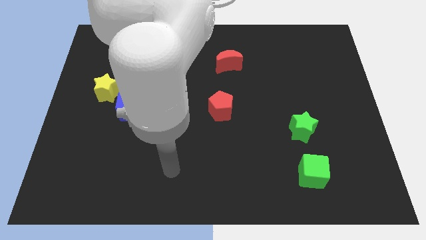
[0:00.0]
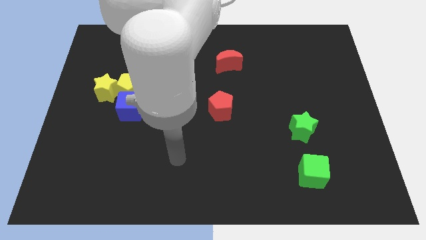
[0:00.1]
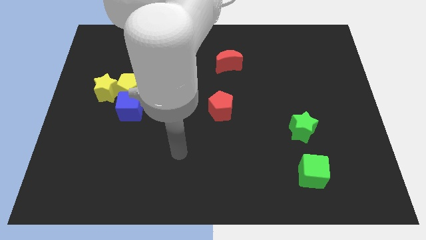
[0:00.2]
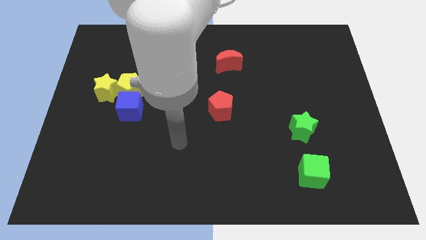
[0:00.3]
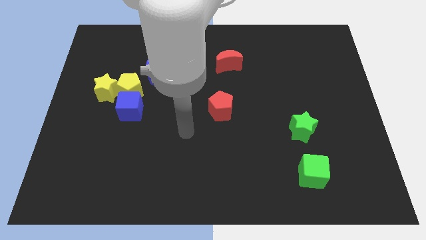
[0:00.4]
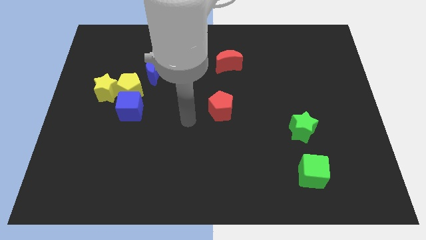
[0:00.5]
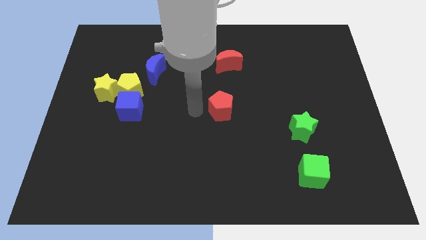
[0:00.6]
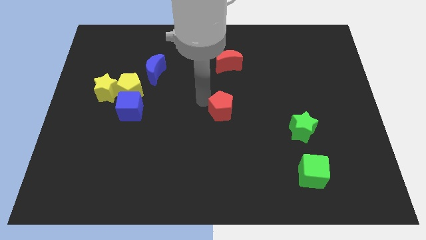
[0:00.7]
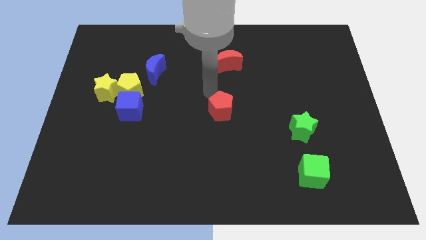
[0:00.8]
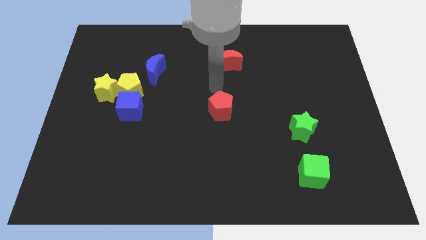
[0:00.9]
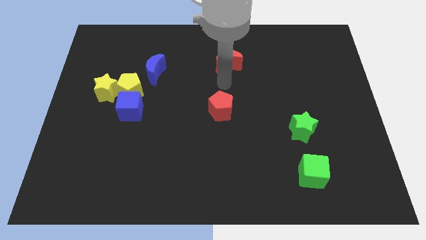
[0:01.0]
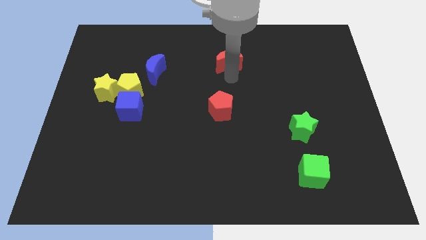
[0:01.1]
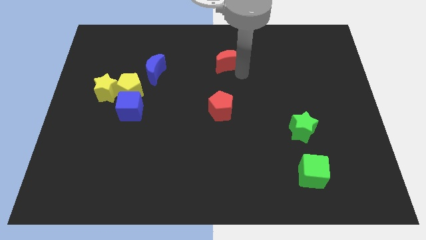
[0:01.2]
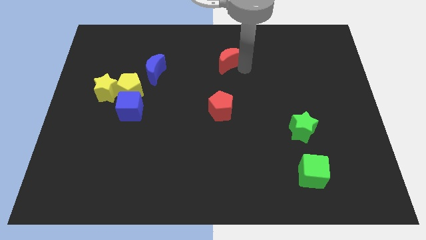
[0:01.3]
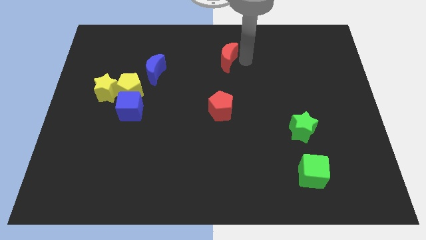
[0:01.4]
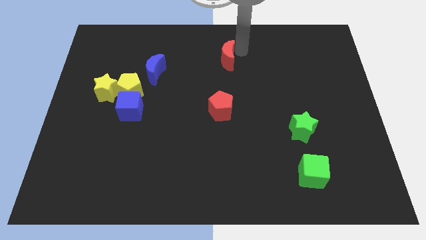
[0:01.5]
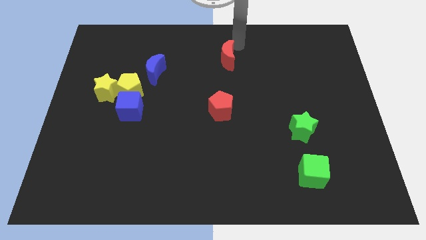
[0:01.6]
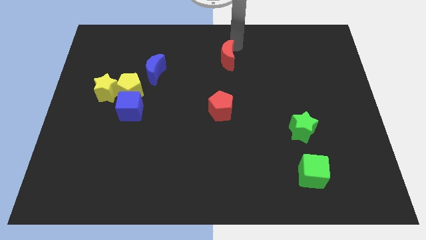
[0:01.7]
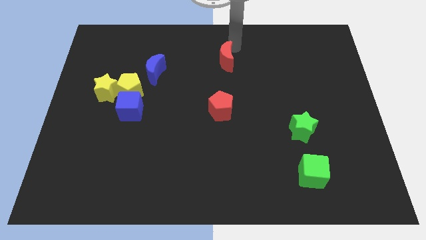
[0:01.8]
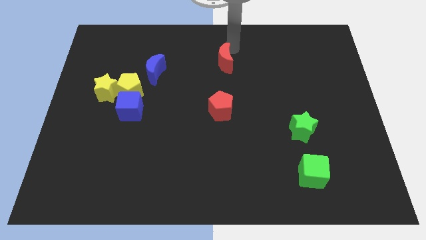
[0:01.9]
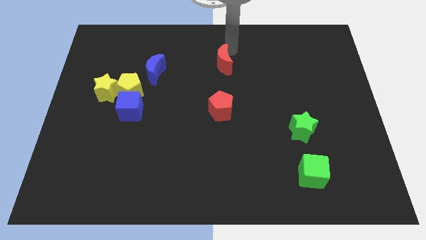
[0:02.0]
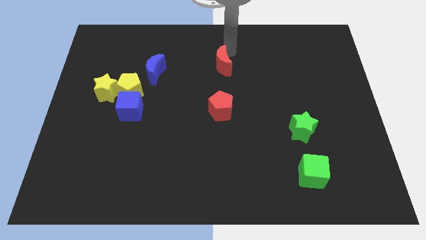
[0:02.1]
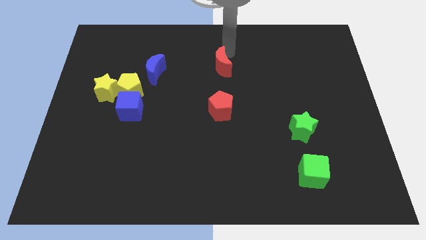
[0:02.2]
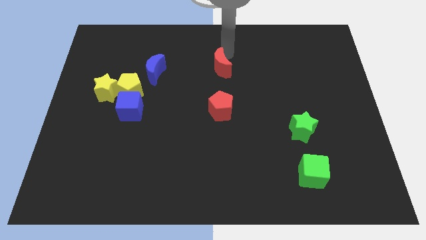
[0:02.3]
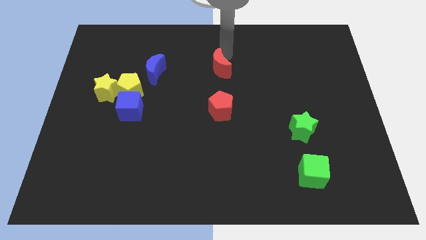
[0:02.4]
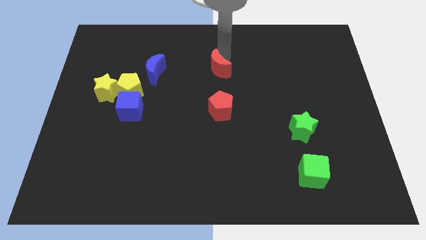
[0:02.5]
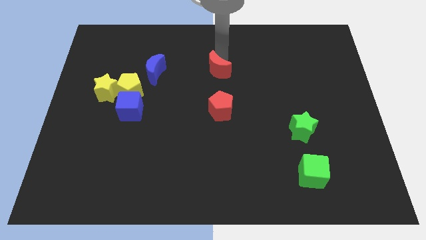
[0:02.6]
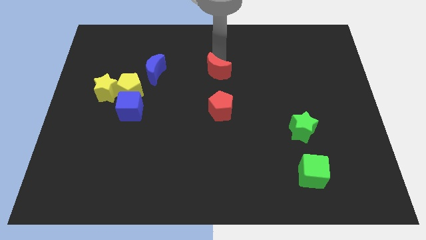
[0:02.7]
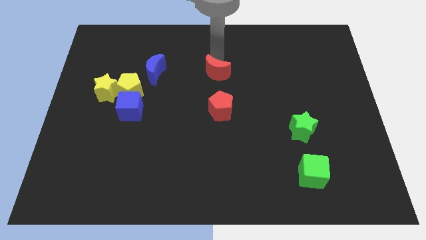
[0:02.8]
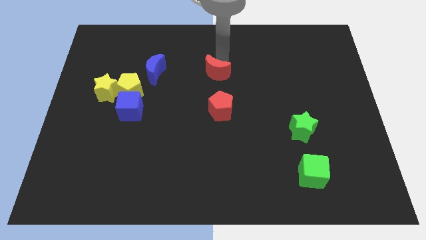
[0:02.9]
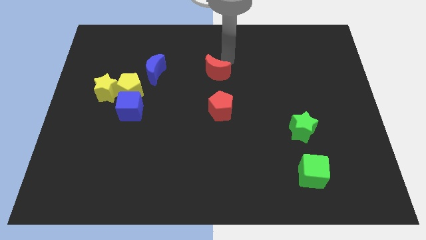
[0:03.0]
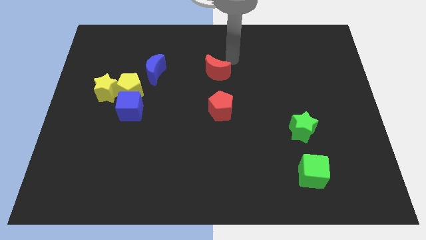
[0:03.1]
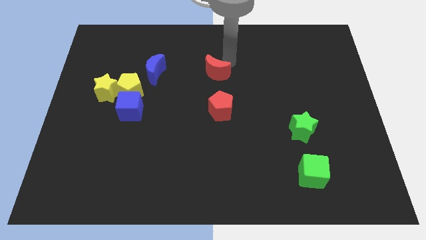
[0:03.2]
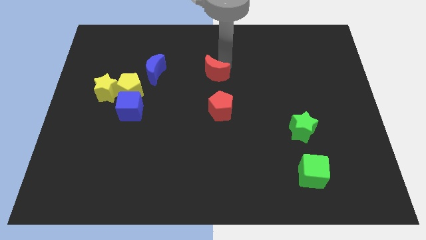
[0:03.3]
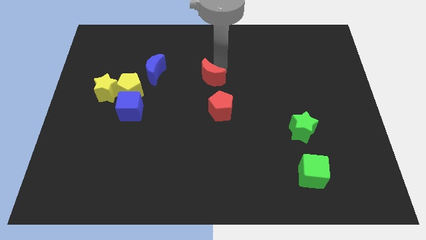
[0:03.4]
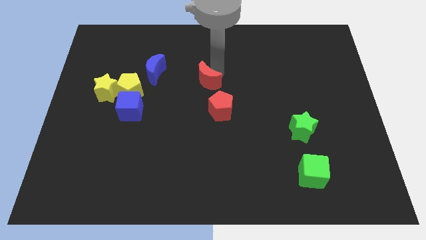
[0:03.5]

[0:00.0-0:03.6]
move the red moon down and left diagonally a bit

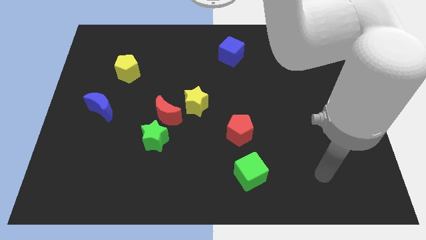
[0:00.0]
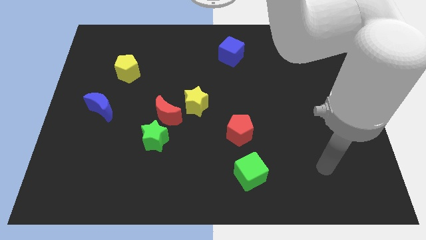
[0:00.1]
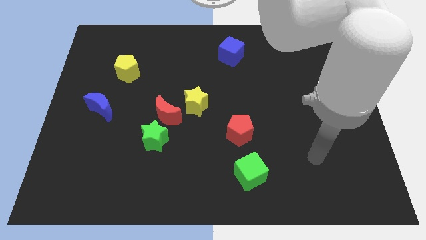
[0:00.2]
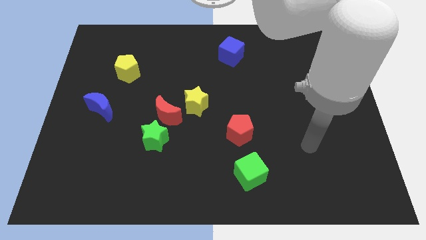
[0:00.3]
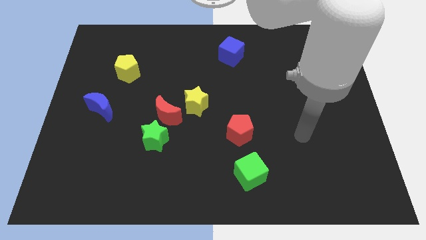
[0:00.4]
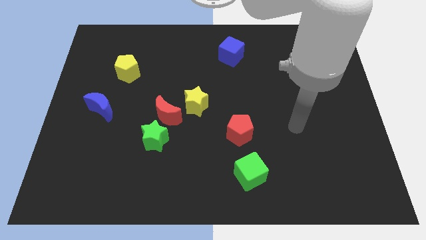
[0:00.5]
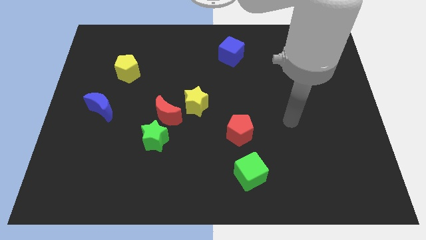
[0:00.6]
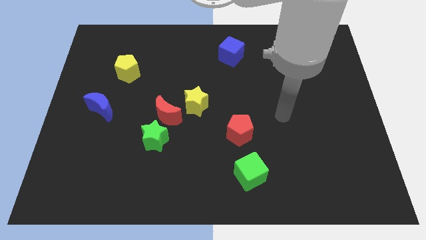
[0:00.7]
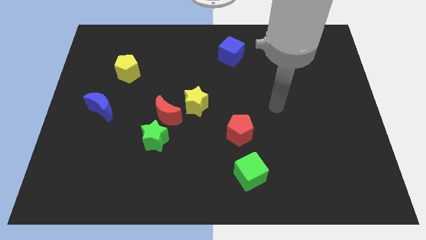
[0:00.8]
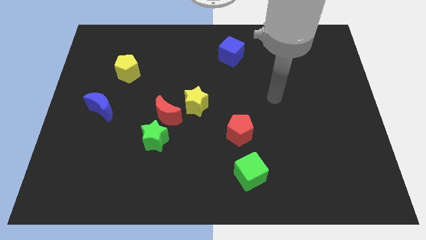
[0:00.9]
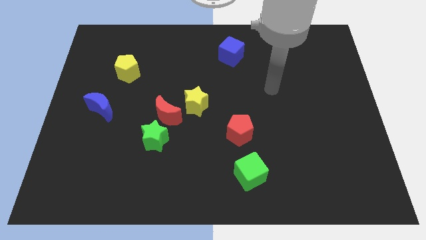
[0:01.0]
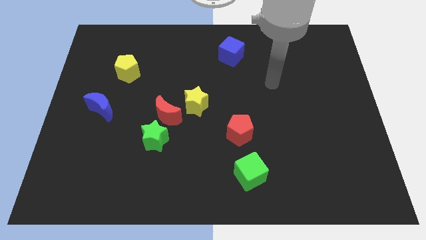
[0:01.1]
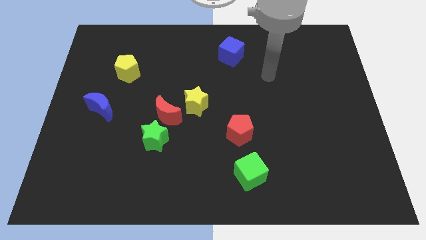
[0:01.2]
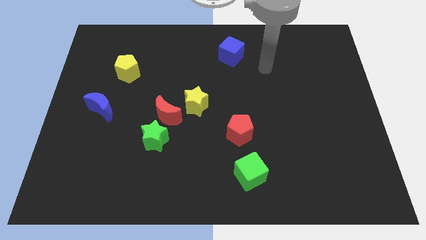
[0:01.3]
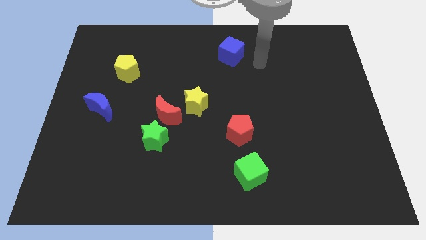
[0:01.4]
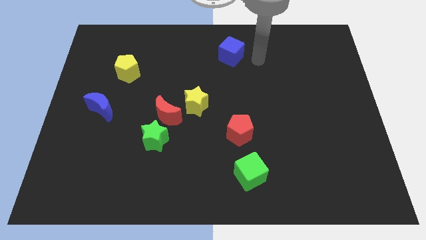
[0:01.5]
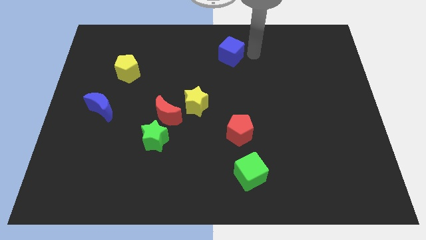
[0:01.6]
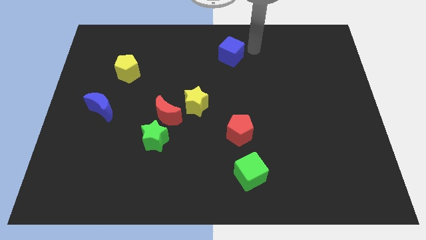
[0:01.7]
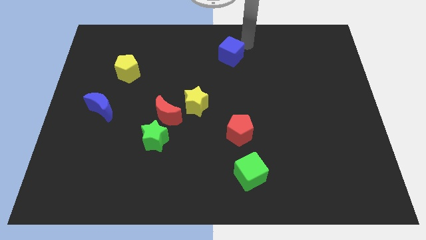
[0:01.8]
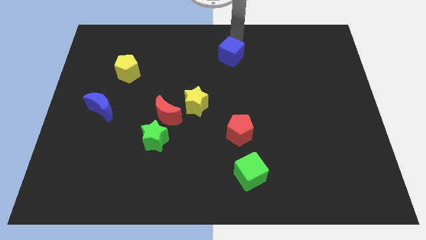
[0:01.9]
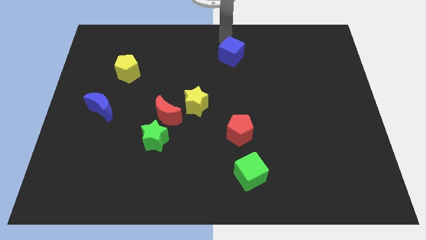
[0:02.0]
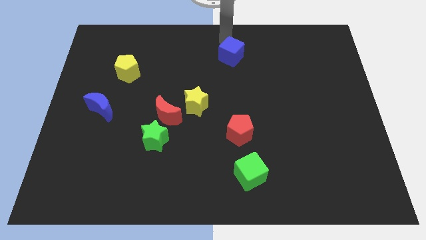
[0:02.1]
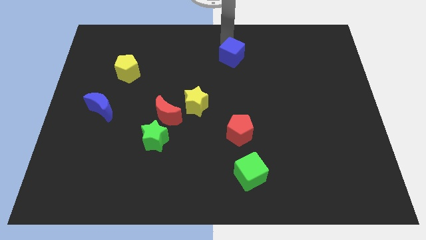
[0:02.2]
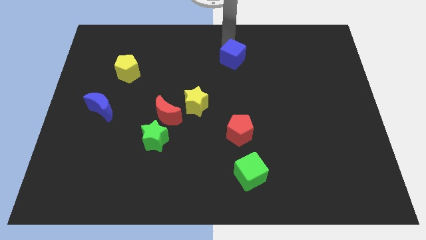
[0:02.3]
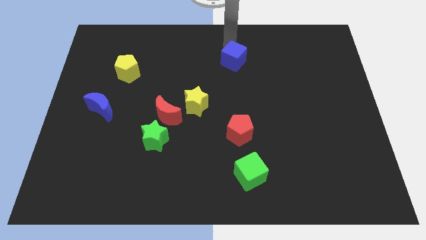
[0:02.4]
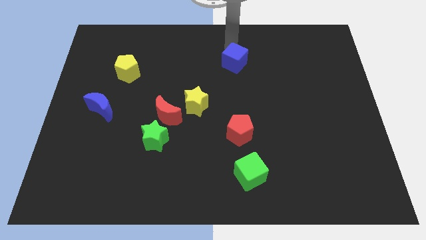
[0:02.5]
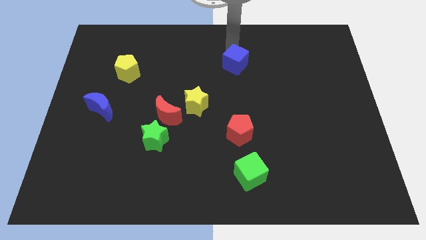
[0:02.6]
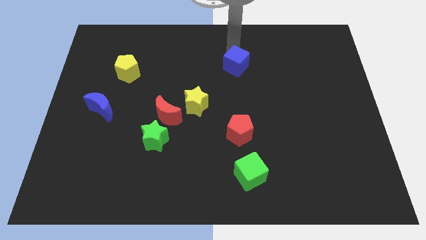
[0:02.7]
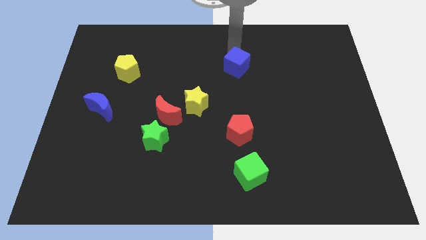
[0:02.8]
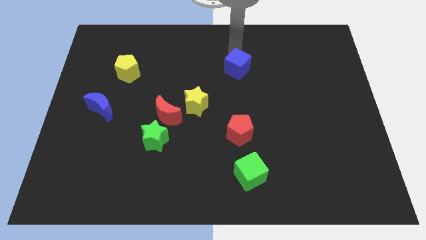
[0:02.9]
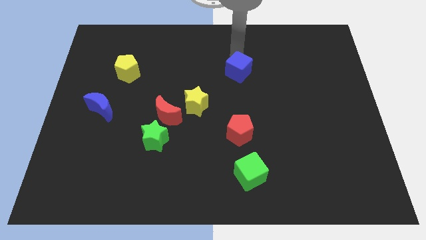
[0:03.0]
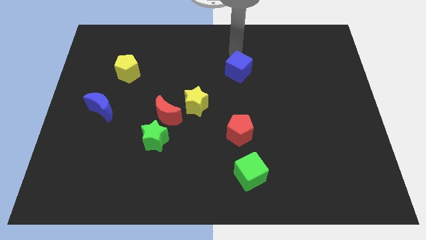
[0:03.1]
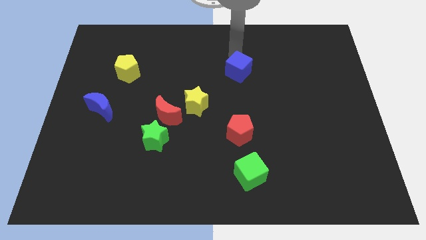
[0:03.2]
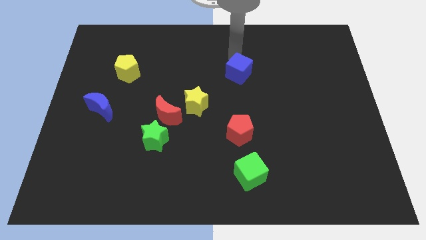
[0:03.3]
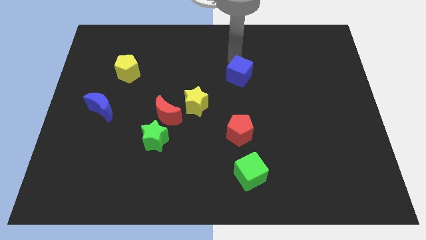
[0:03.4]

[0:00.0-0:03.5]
slide the blue cube a bit down

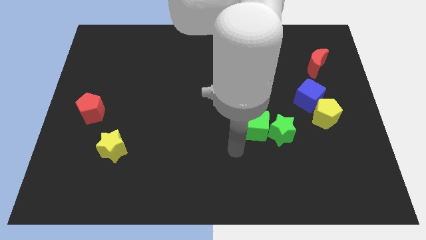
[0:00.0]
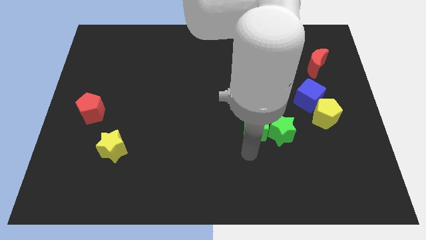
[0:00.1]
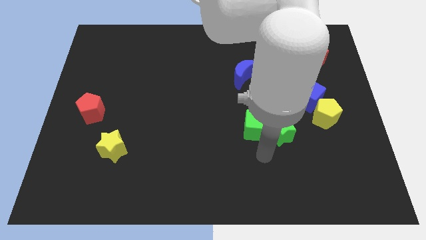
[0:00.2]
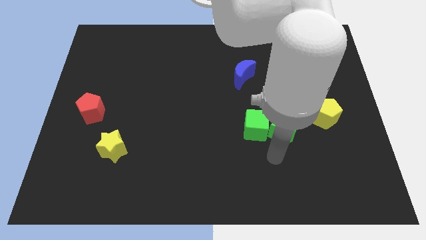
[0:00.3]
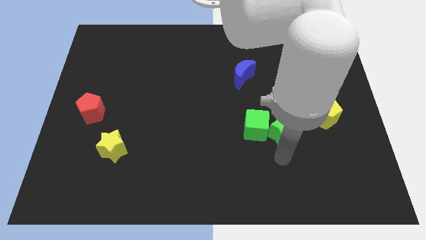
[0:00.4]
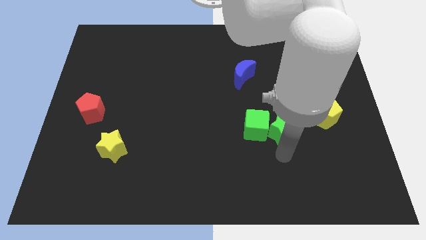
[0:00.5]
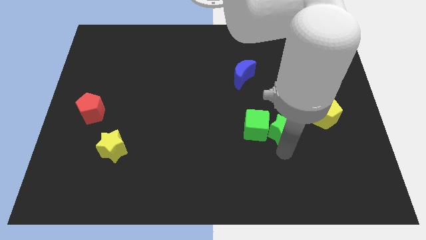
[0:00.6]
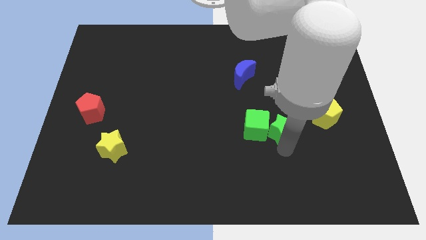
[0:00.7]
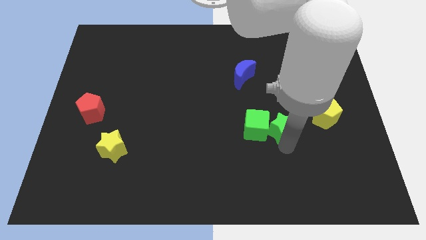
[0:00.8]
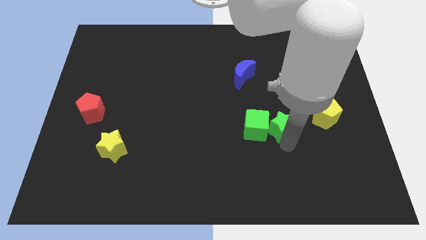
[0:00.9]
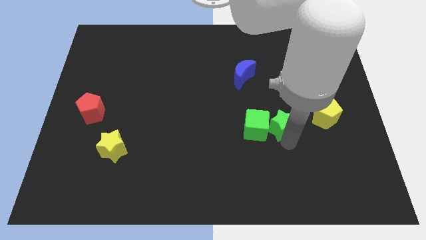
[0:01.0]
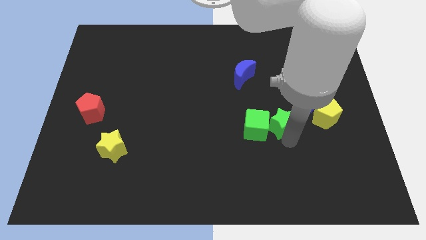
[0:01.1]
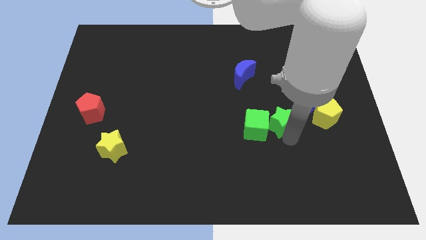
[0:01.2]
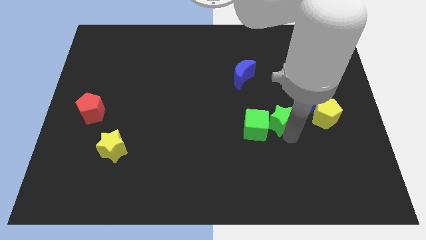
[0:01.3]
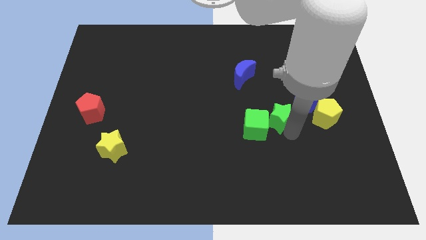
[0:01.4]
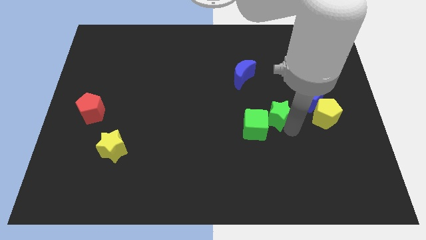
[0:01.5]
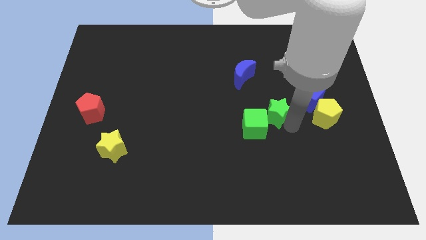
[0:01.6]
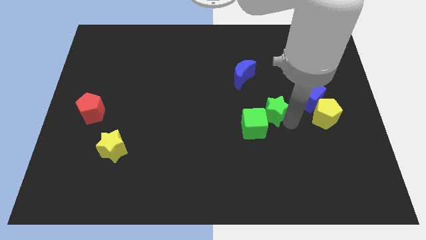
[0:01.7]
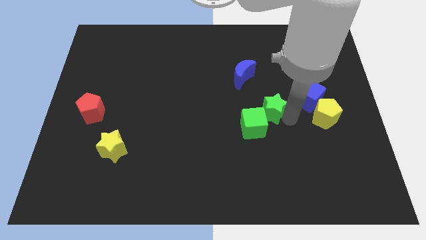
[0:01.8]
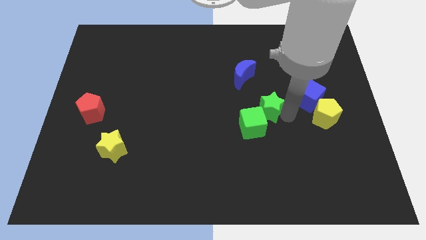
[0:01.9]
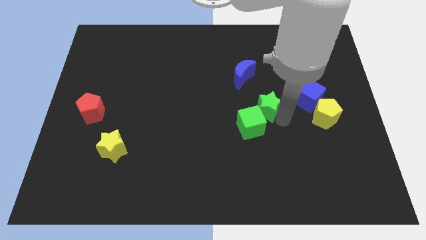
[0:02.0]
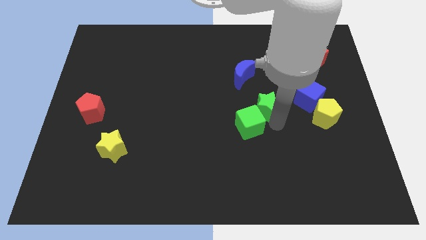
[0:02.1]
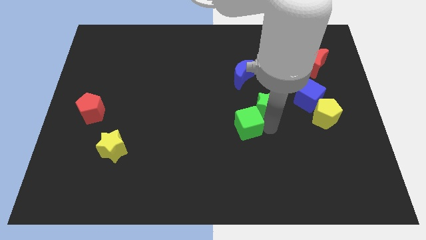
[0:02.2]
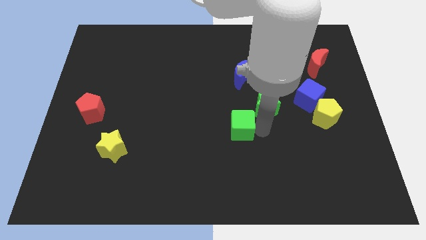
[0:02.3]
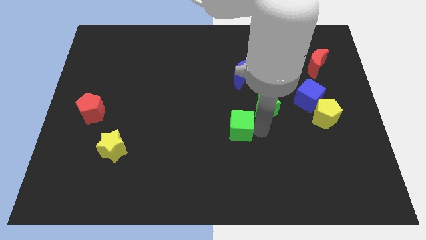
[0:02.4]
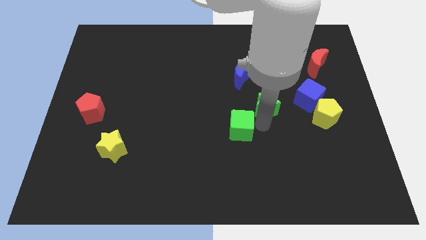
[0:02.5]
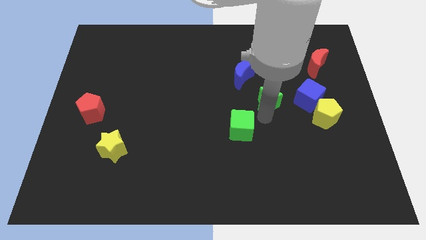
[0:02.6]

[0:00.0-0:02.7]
slightly push the green star up
